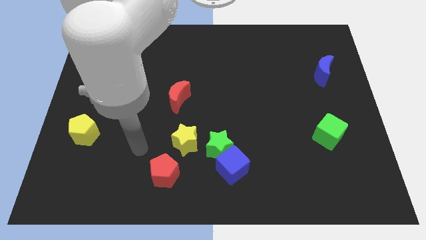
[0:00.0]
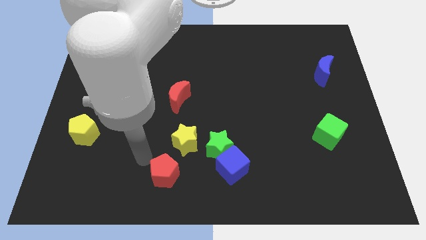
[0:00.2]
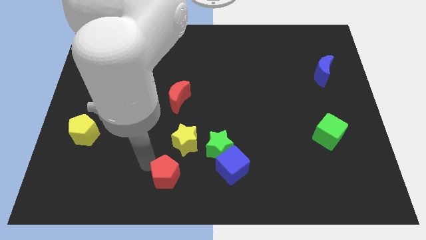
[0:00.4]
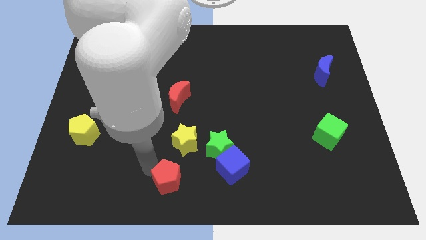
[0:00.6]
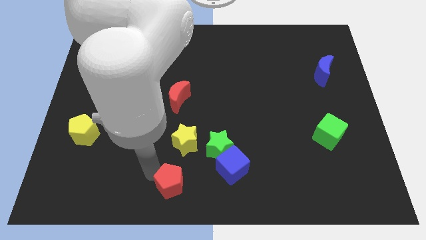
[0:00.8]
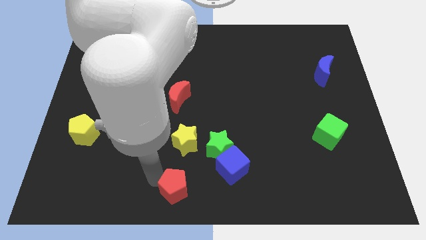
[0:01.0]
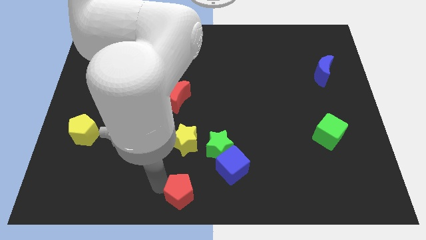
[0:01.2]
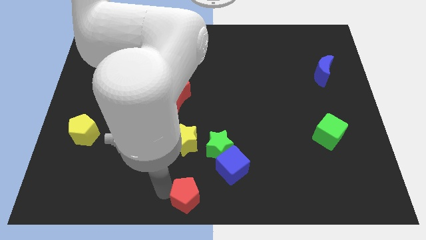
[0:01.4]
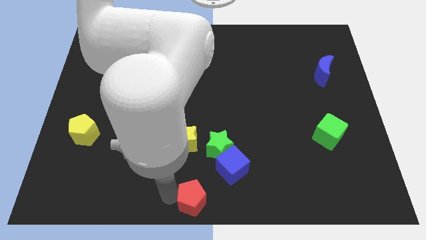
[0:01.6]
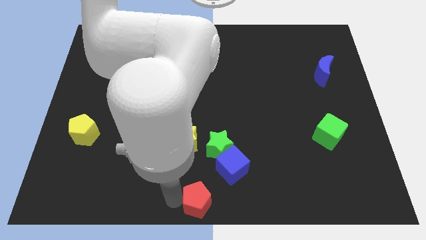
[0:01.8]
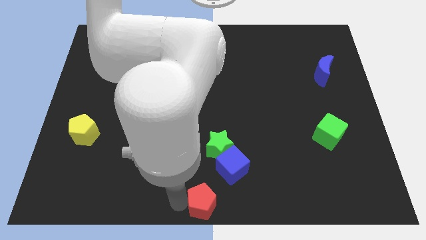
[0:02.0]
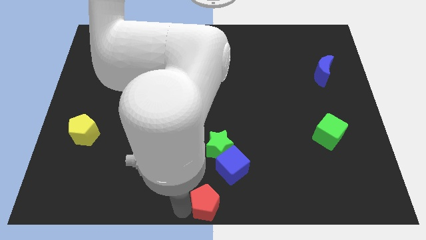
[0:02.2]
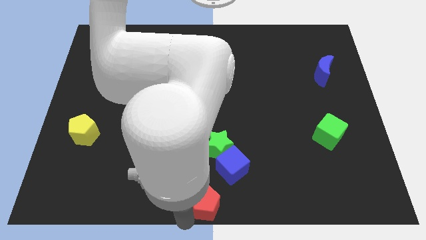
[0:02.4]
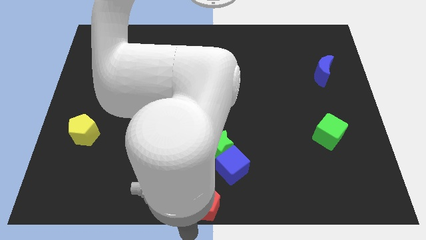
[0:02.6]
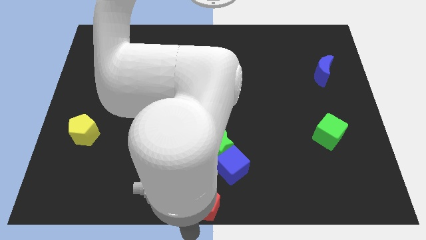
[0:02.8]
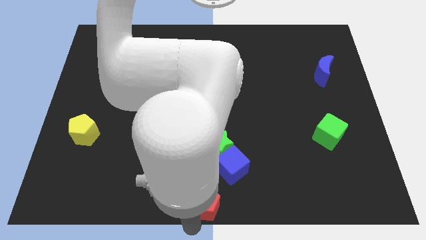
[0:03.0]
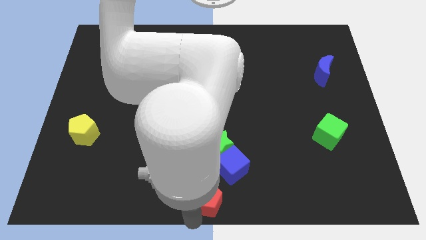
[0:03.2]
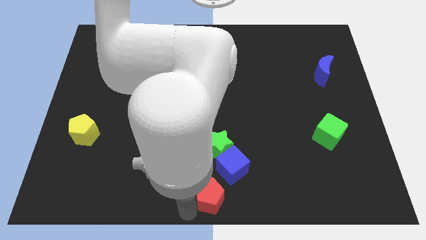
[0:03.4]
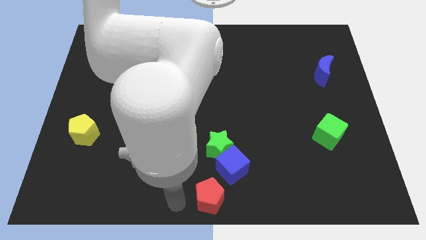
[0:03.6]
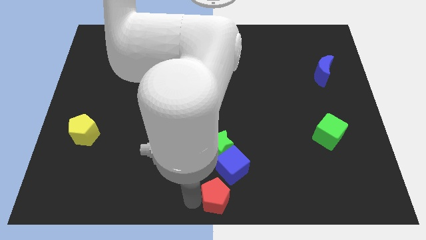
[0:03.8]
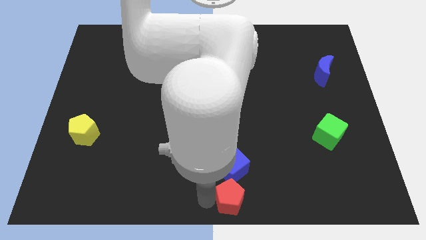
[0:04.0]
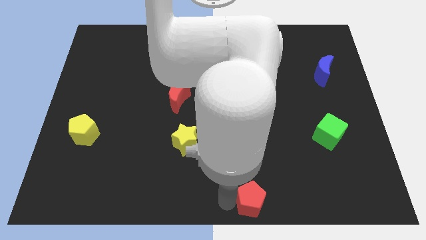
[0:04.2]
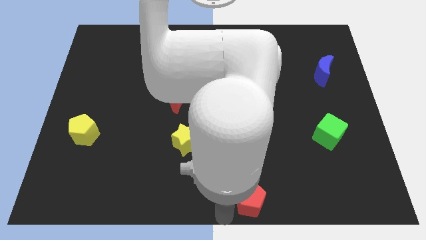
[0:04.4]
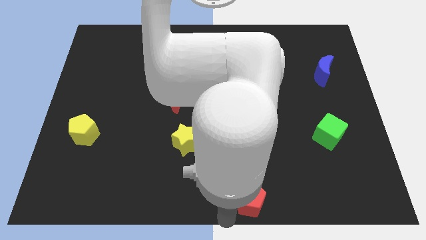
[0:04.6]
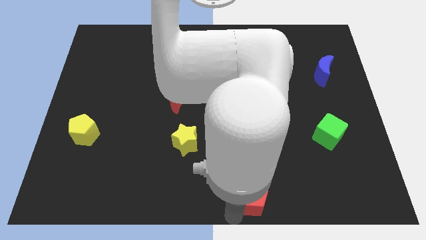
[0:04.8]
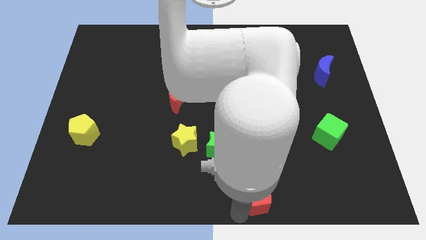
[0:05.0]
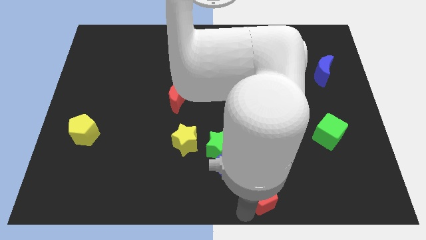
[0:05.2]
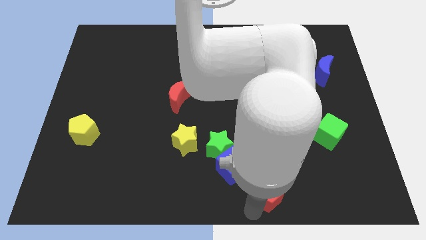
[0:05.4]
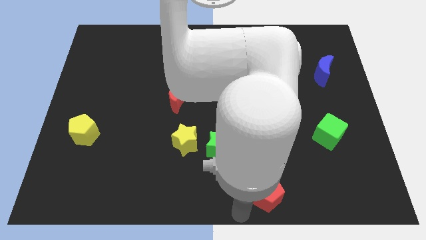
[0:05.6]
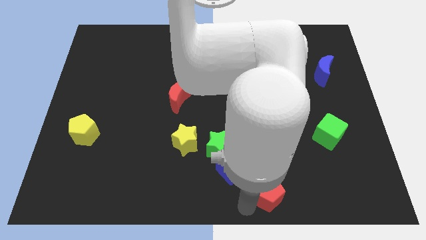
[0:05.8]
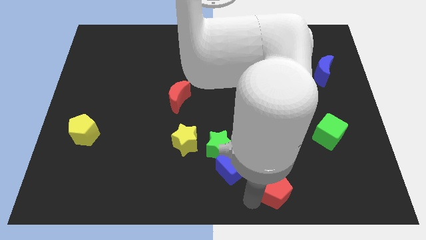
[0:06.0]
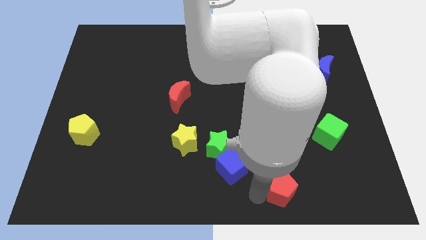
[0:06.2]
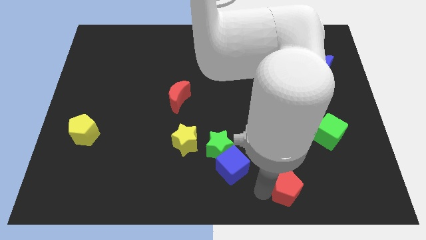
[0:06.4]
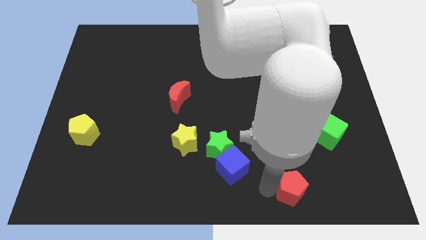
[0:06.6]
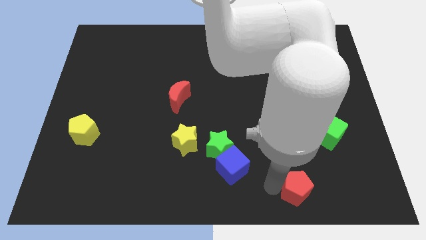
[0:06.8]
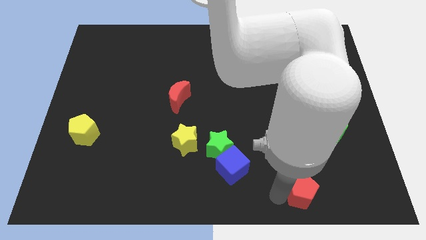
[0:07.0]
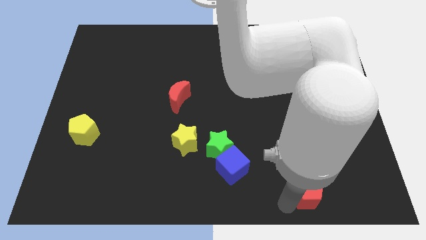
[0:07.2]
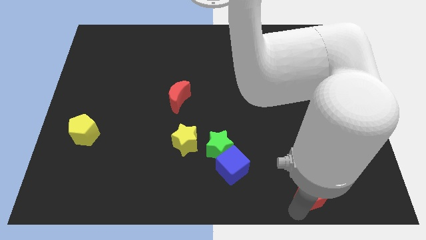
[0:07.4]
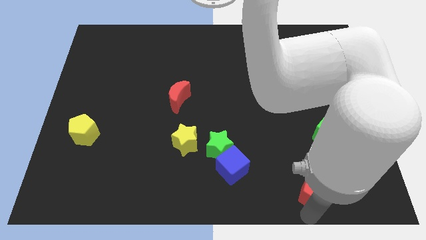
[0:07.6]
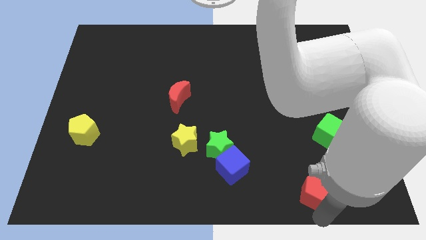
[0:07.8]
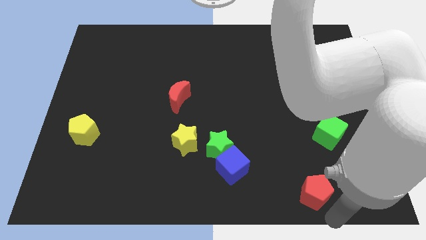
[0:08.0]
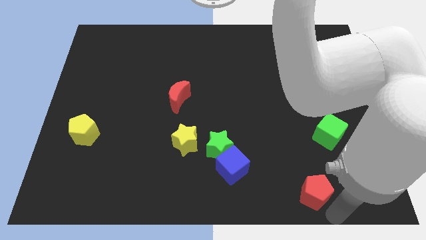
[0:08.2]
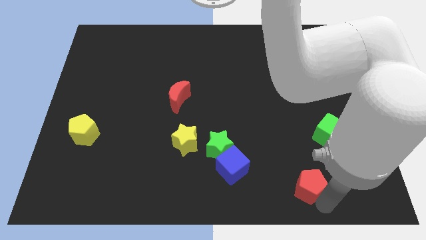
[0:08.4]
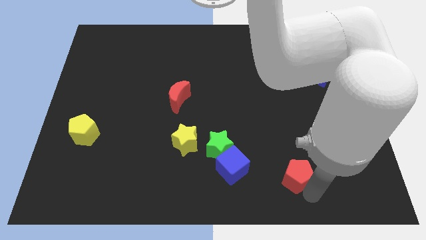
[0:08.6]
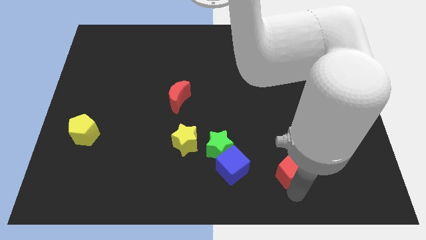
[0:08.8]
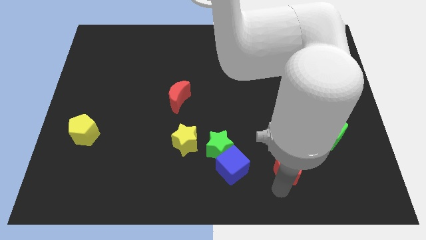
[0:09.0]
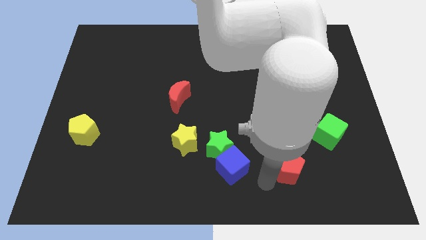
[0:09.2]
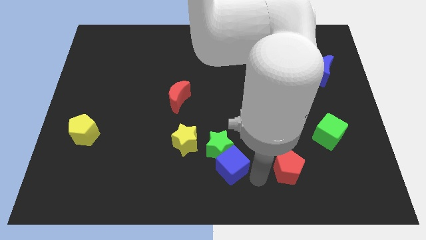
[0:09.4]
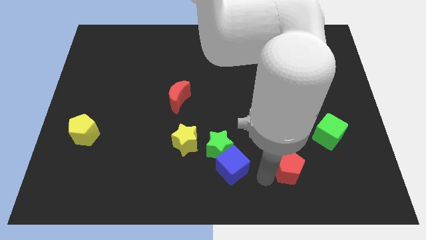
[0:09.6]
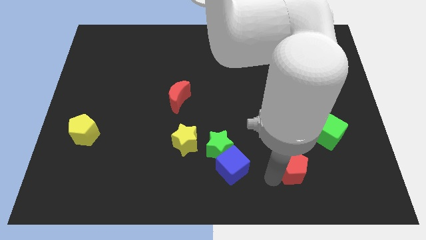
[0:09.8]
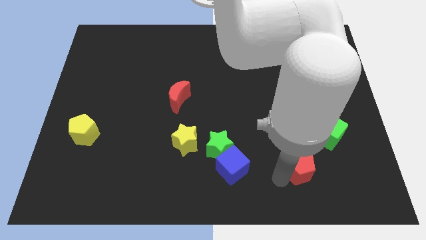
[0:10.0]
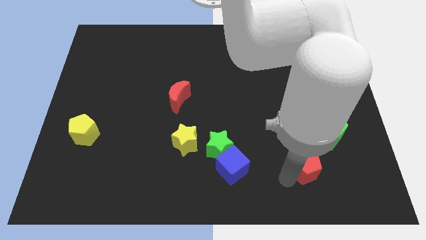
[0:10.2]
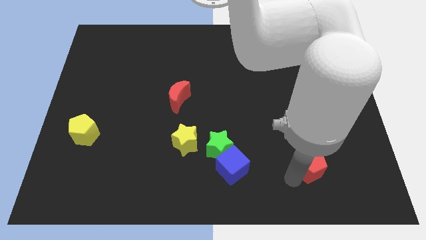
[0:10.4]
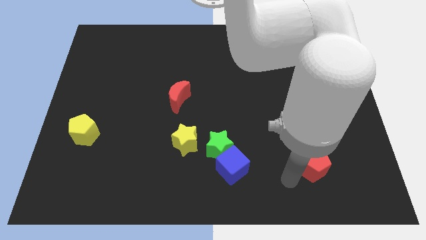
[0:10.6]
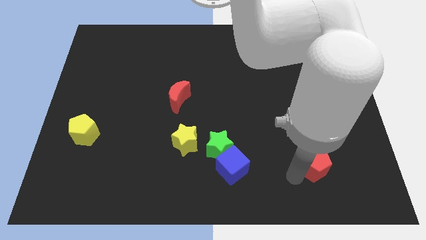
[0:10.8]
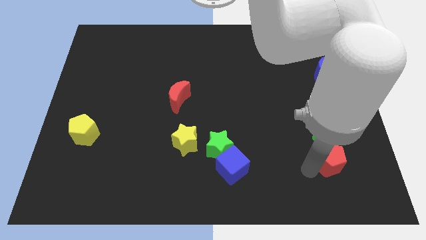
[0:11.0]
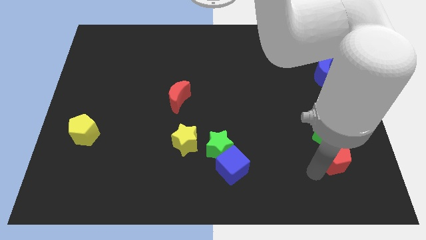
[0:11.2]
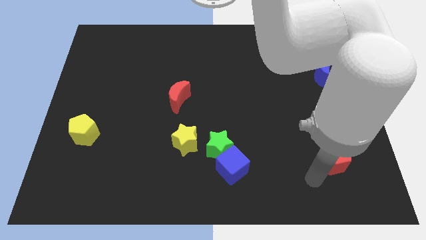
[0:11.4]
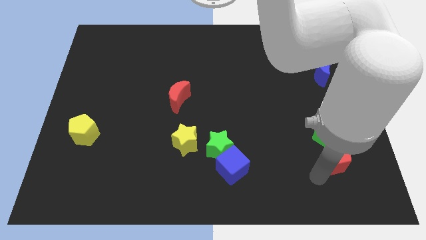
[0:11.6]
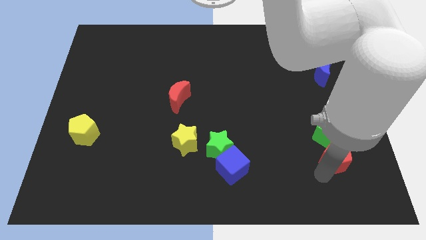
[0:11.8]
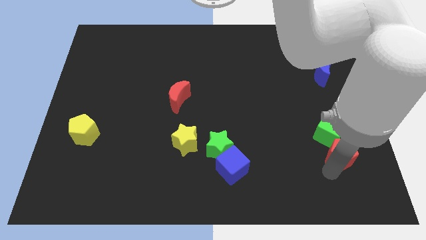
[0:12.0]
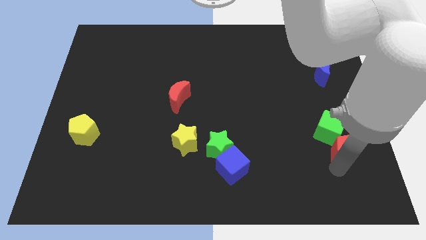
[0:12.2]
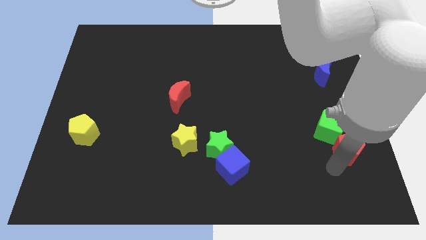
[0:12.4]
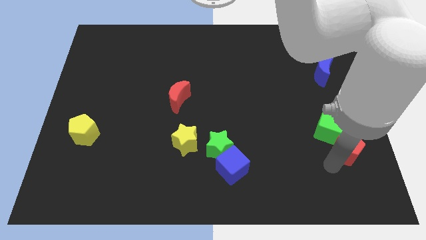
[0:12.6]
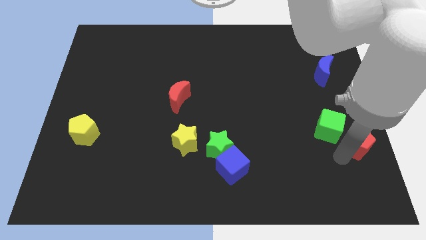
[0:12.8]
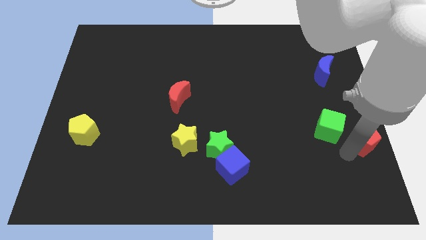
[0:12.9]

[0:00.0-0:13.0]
push the red pentagon to the right side of the board

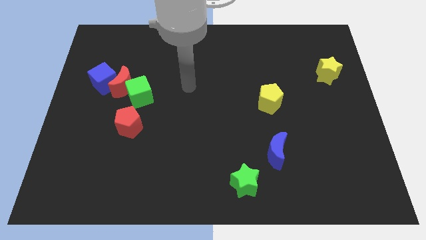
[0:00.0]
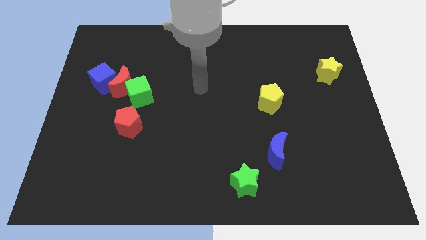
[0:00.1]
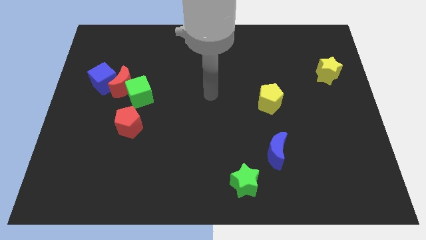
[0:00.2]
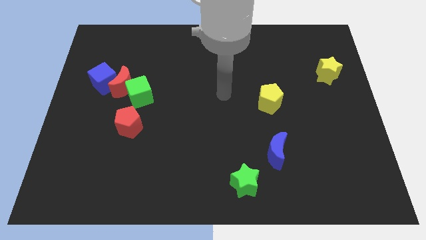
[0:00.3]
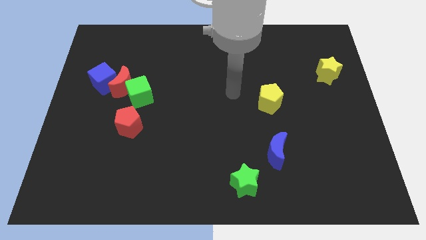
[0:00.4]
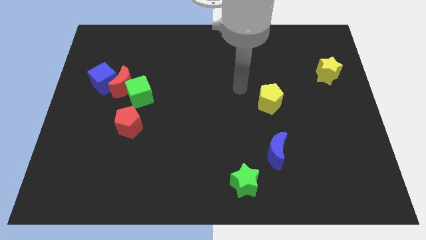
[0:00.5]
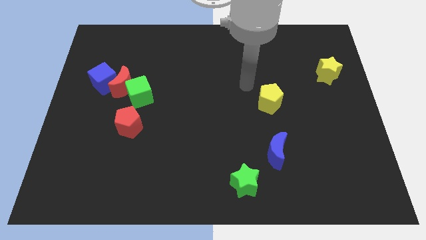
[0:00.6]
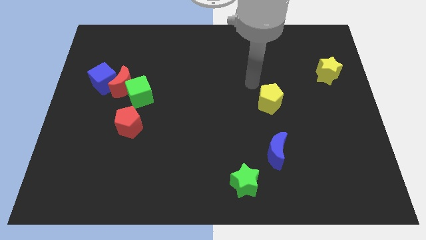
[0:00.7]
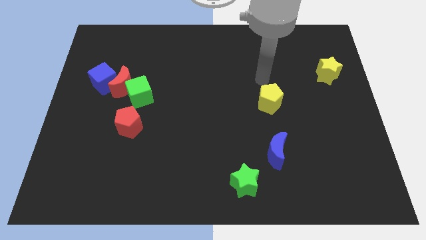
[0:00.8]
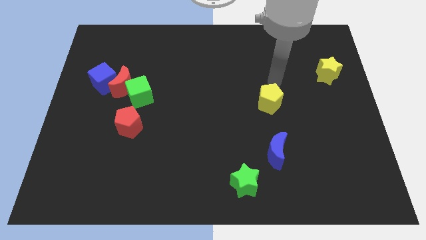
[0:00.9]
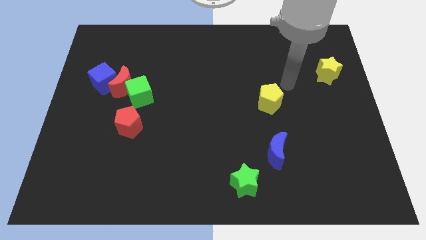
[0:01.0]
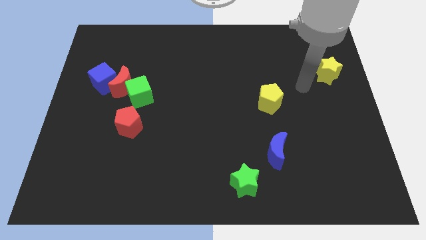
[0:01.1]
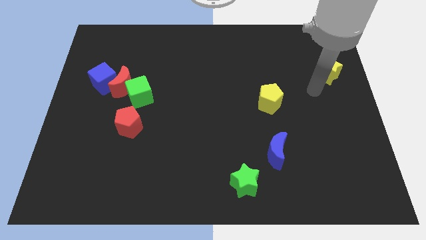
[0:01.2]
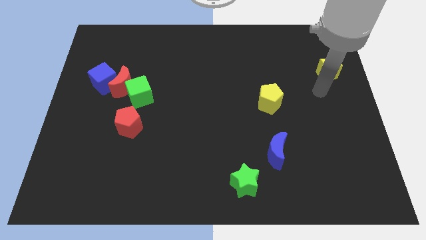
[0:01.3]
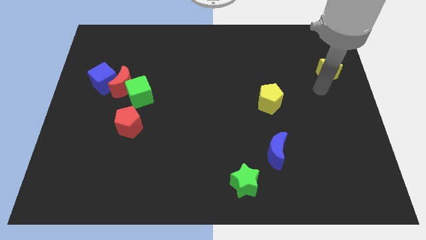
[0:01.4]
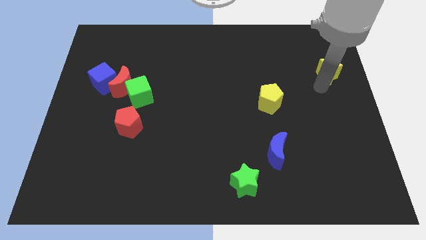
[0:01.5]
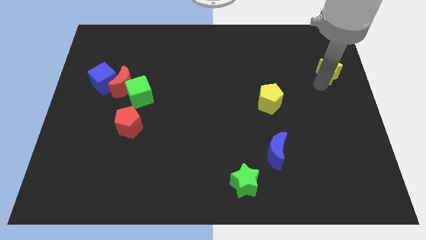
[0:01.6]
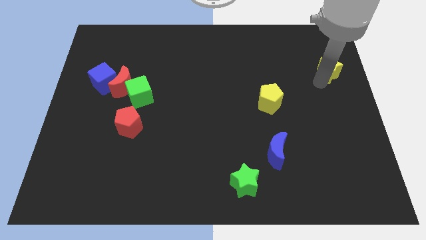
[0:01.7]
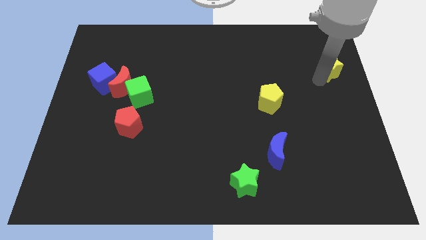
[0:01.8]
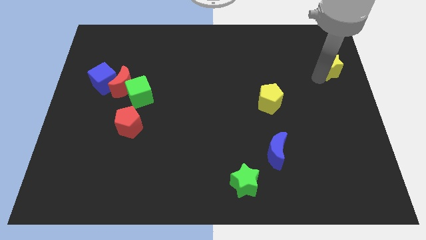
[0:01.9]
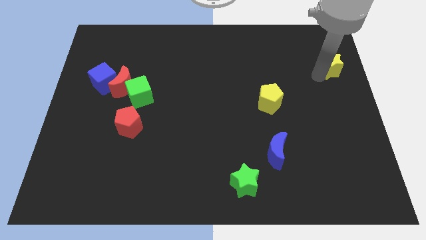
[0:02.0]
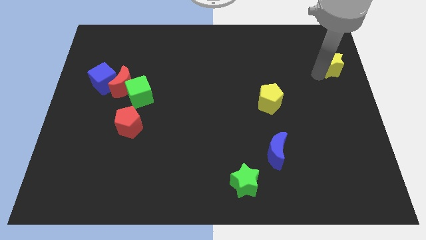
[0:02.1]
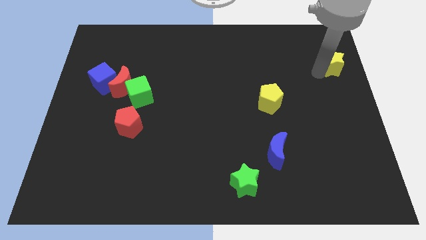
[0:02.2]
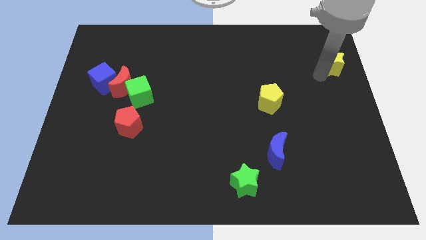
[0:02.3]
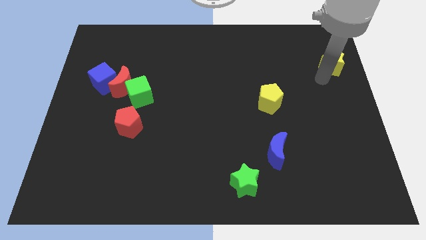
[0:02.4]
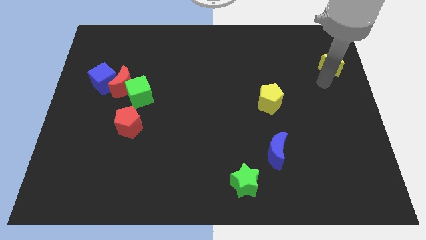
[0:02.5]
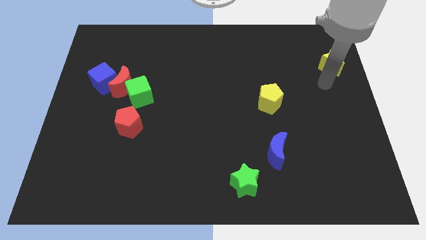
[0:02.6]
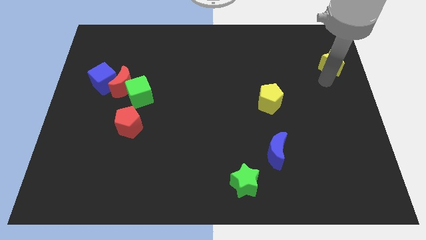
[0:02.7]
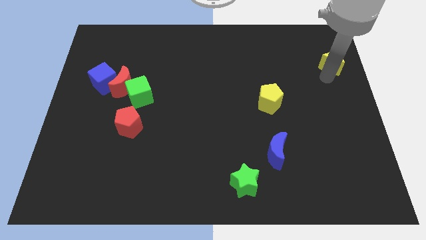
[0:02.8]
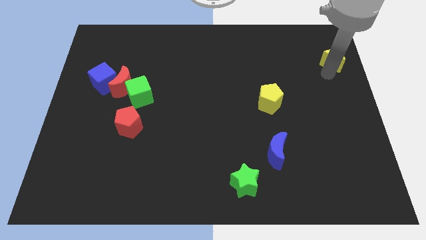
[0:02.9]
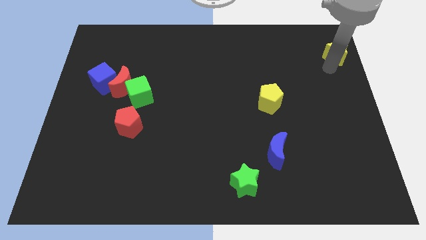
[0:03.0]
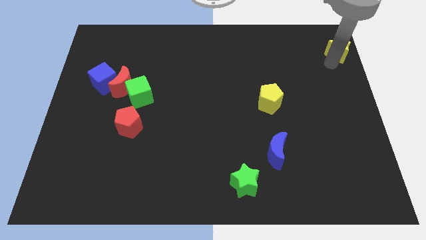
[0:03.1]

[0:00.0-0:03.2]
push the yellow star to the upper right corner
